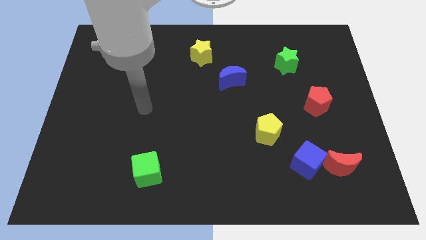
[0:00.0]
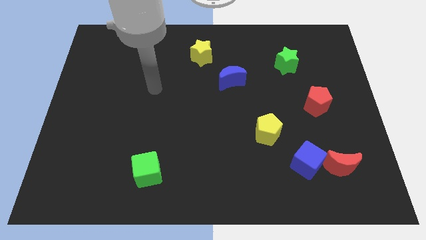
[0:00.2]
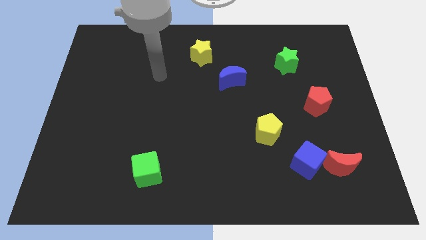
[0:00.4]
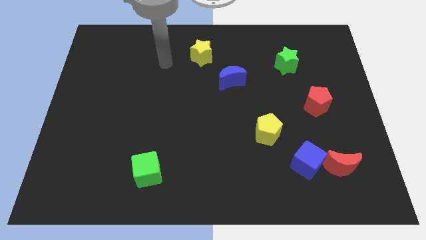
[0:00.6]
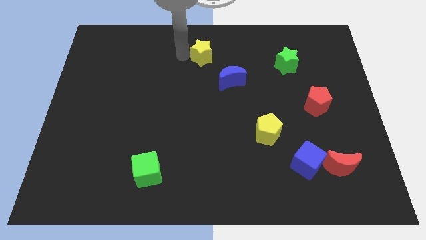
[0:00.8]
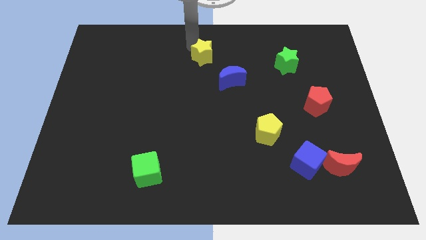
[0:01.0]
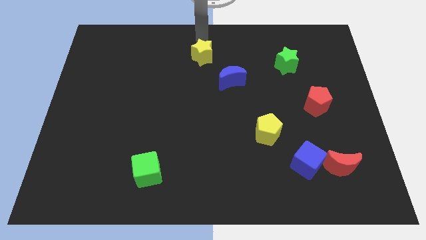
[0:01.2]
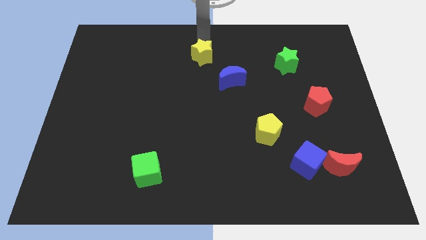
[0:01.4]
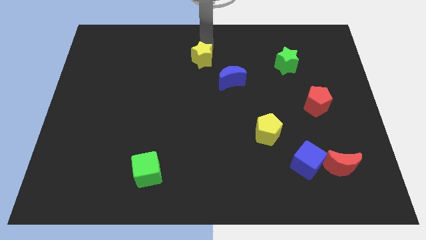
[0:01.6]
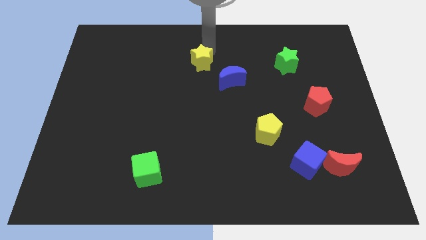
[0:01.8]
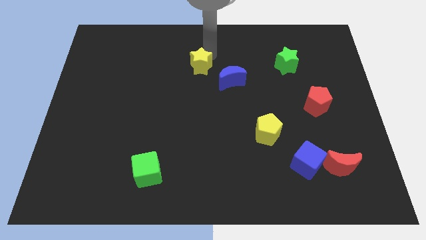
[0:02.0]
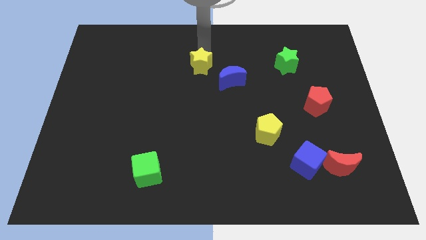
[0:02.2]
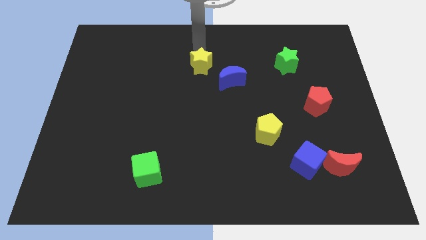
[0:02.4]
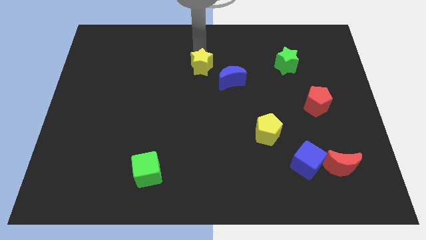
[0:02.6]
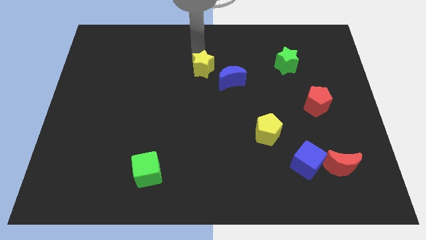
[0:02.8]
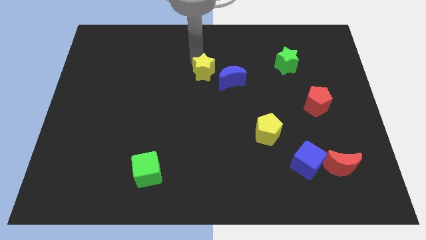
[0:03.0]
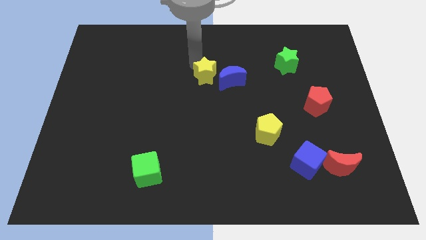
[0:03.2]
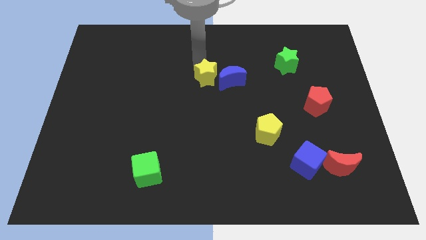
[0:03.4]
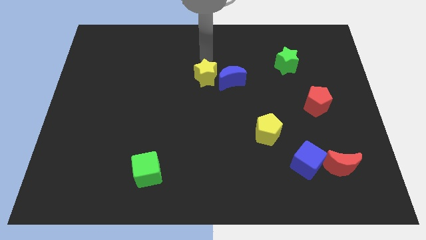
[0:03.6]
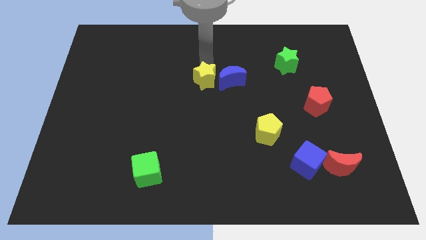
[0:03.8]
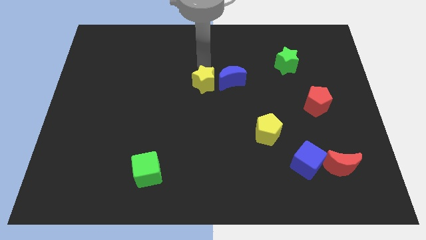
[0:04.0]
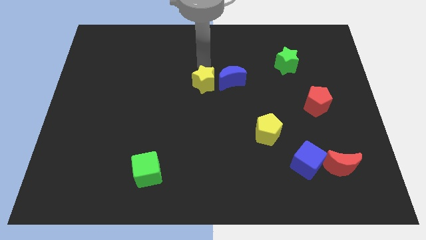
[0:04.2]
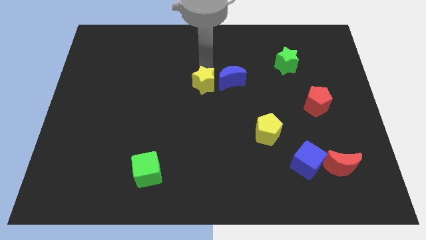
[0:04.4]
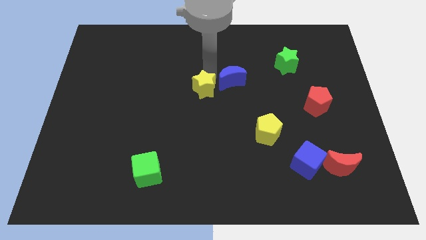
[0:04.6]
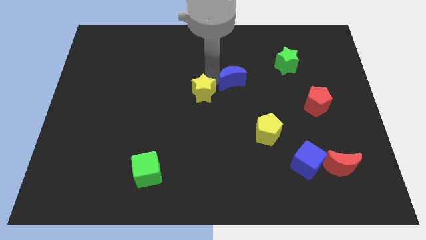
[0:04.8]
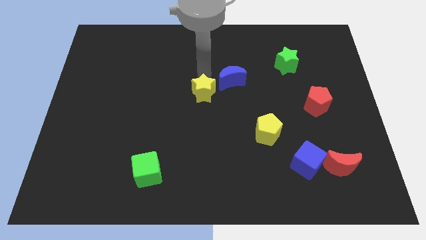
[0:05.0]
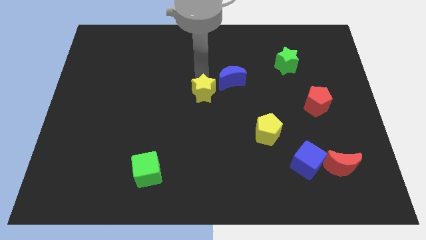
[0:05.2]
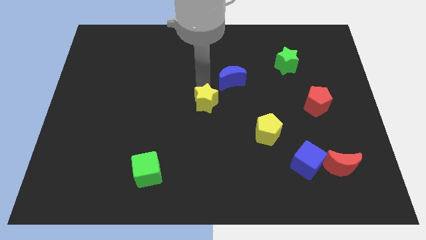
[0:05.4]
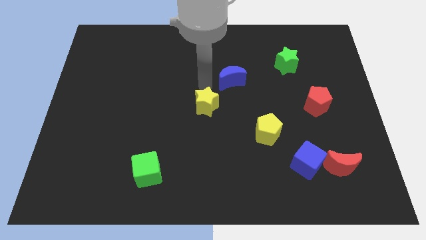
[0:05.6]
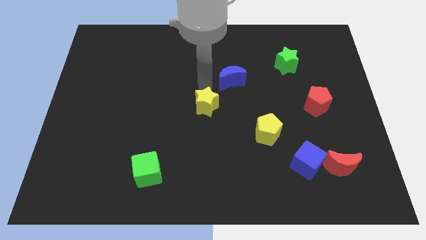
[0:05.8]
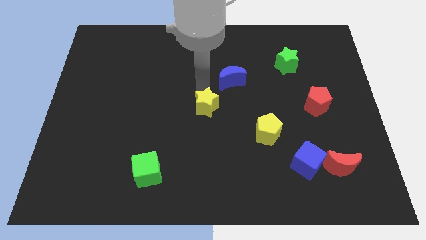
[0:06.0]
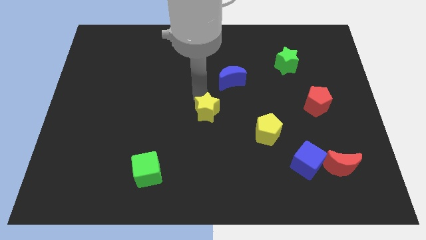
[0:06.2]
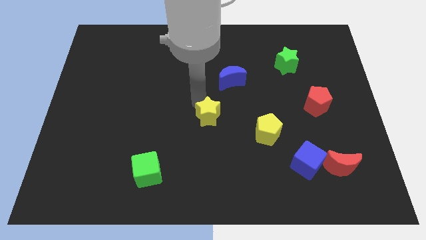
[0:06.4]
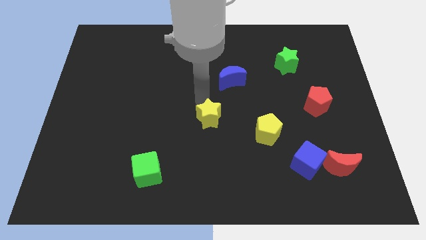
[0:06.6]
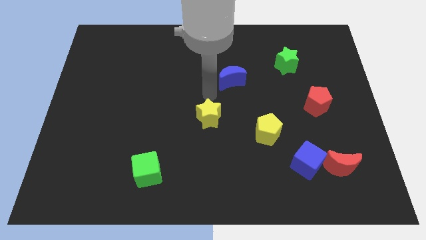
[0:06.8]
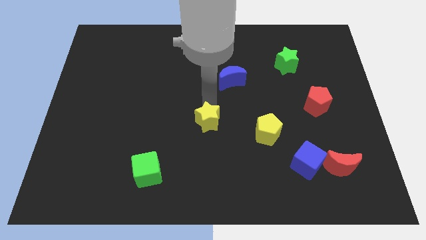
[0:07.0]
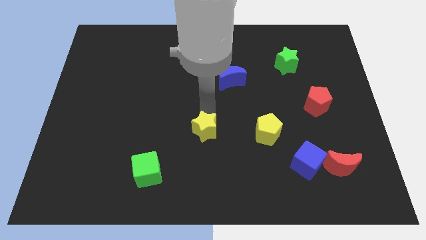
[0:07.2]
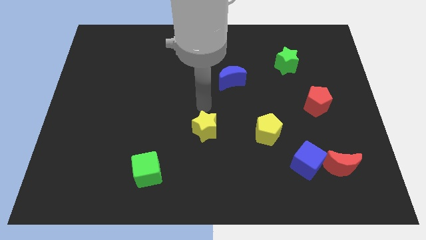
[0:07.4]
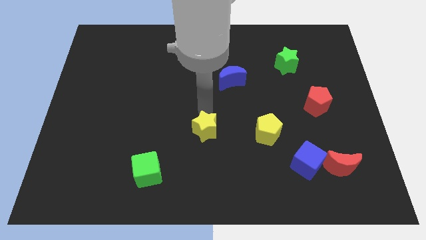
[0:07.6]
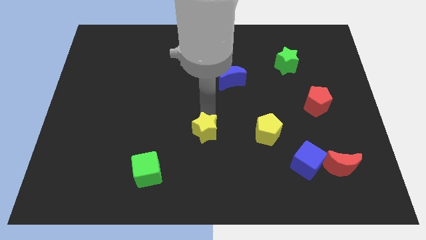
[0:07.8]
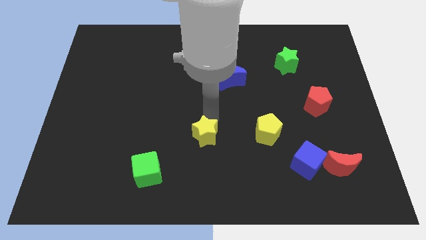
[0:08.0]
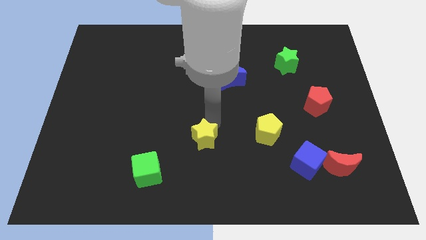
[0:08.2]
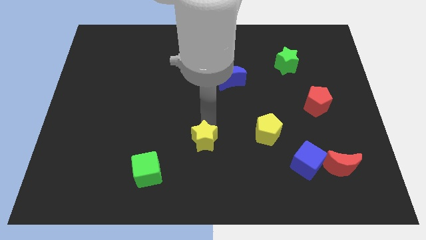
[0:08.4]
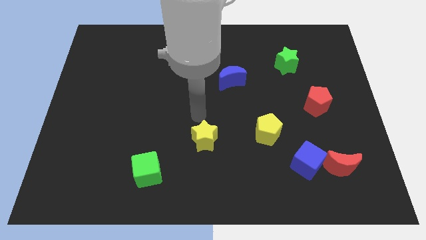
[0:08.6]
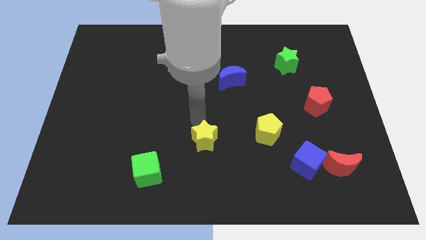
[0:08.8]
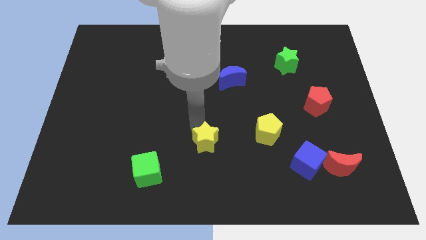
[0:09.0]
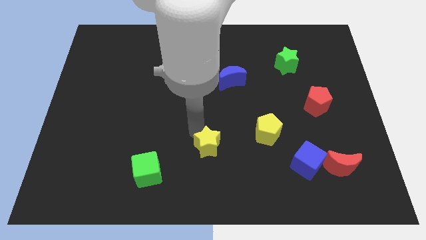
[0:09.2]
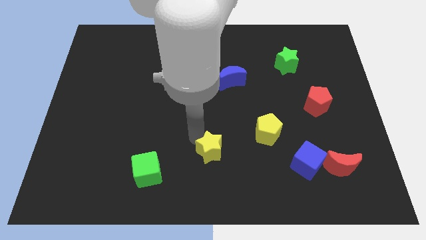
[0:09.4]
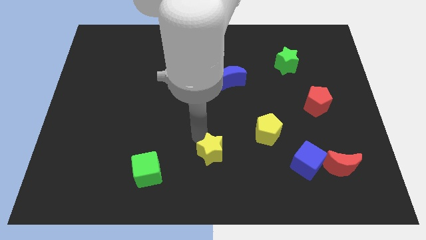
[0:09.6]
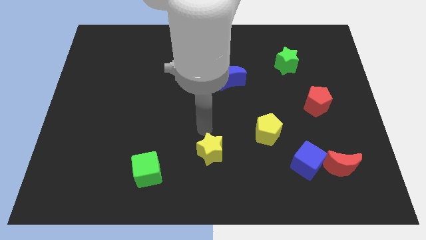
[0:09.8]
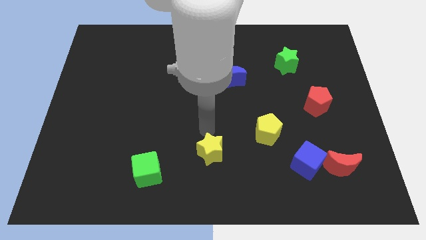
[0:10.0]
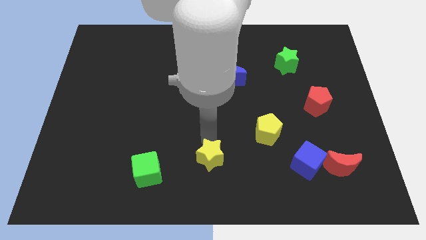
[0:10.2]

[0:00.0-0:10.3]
put the yellow star to the bottom

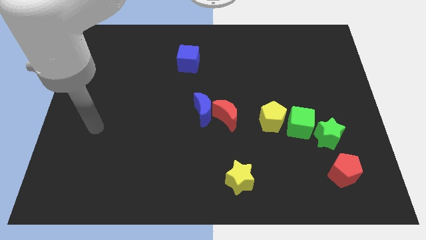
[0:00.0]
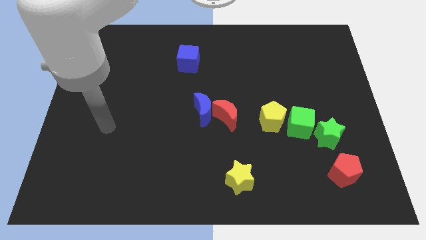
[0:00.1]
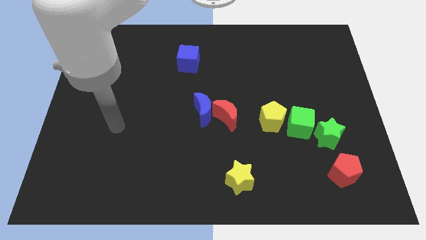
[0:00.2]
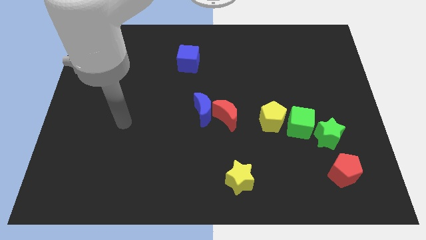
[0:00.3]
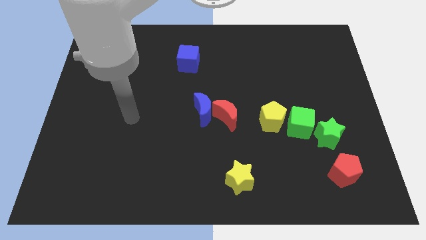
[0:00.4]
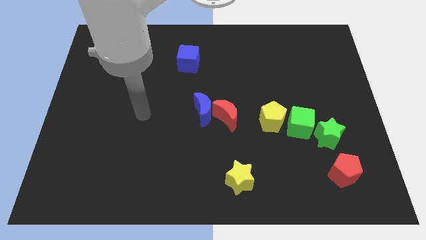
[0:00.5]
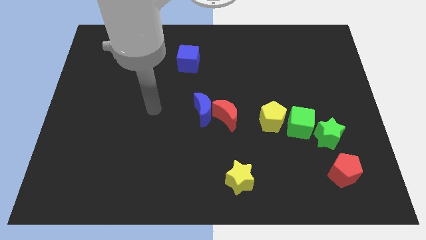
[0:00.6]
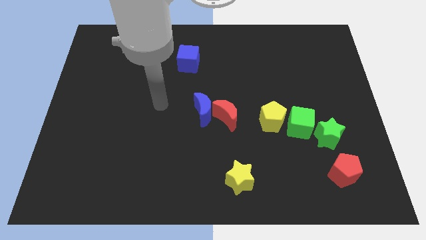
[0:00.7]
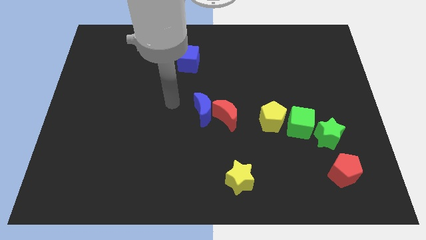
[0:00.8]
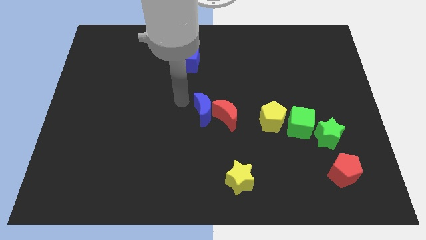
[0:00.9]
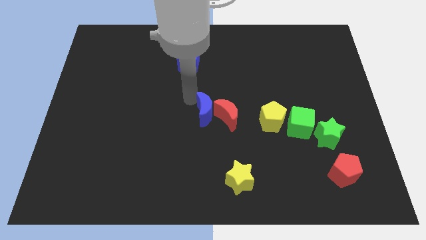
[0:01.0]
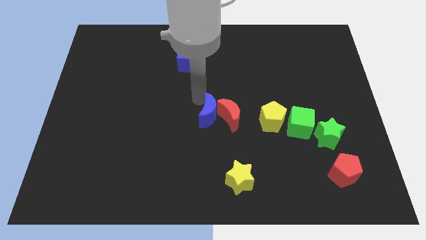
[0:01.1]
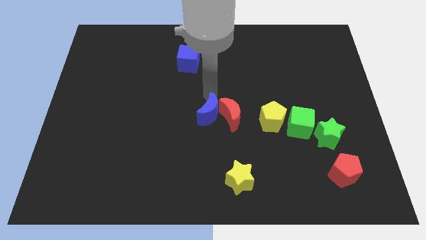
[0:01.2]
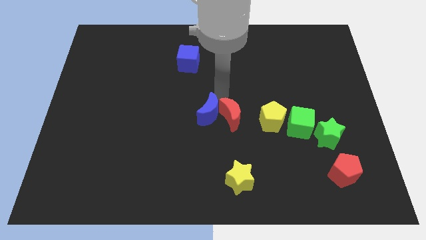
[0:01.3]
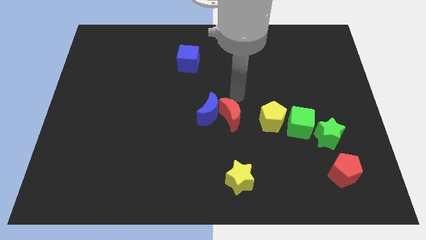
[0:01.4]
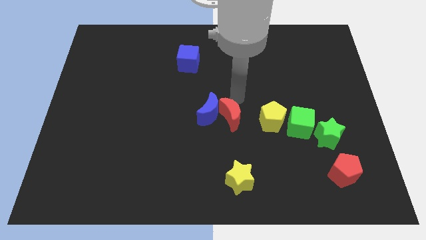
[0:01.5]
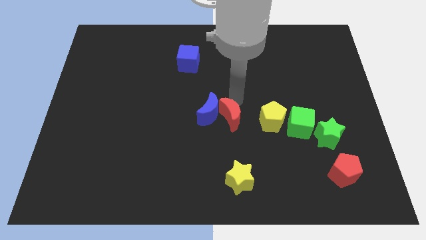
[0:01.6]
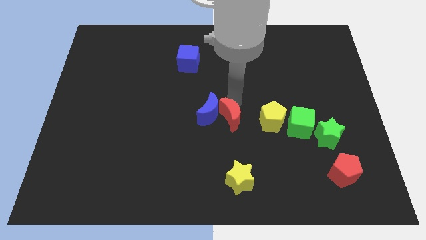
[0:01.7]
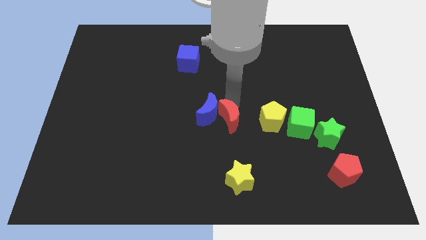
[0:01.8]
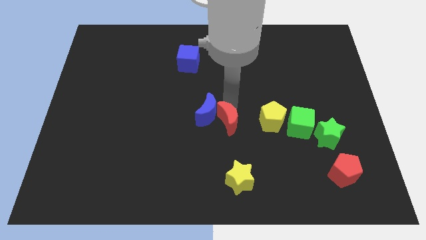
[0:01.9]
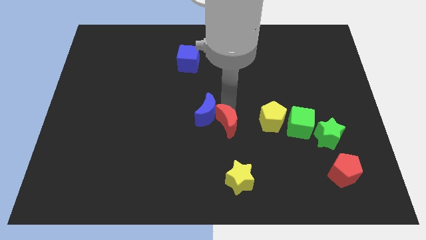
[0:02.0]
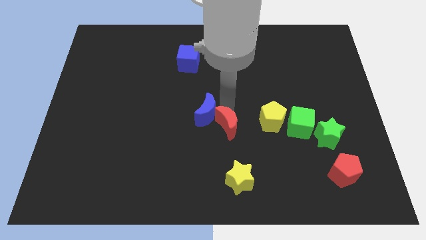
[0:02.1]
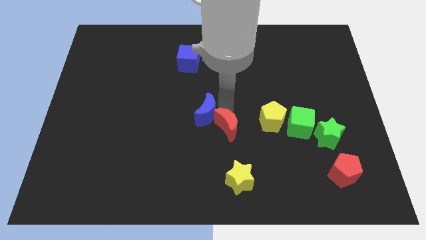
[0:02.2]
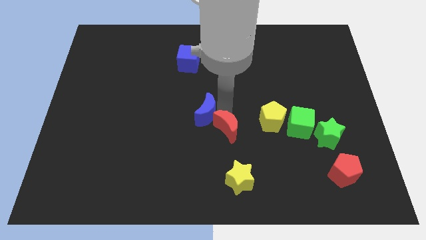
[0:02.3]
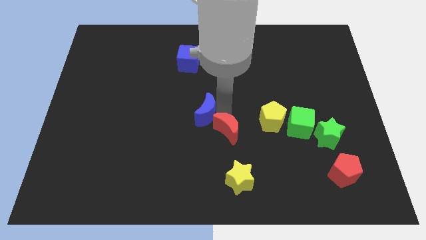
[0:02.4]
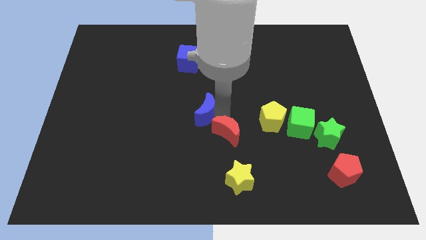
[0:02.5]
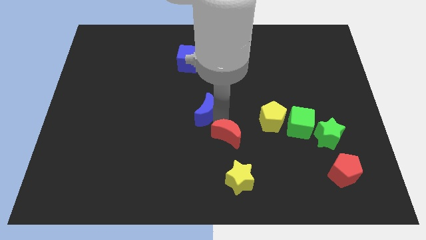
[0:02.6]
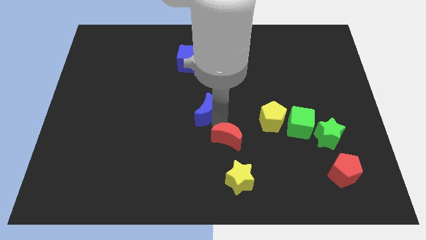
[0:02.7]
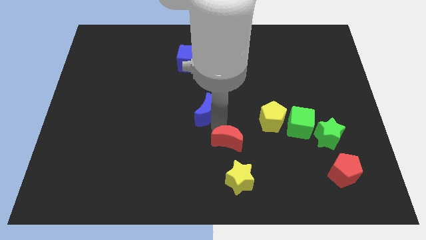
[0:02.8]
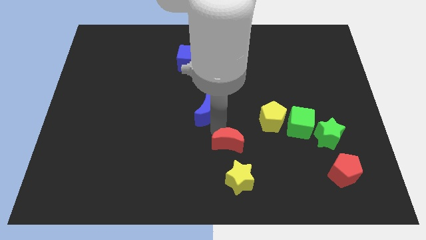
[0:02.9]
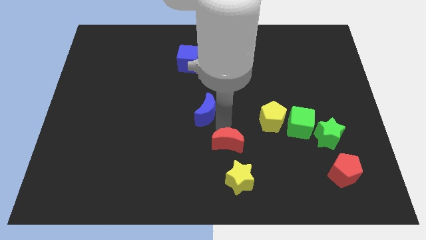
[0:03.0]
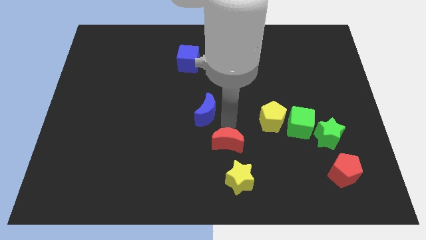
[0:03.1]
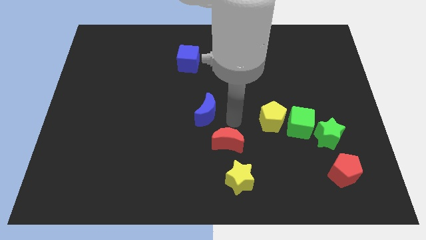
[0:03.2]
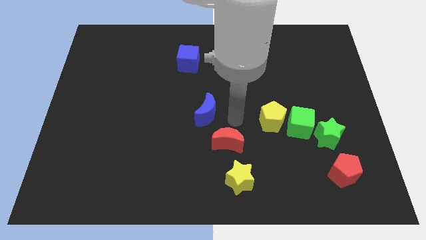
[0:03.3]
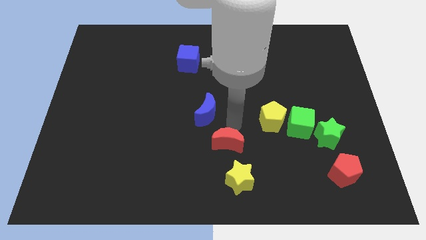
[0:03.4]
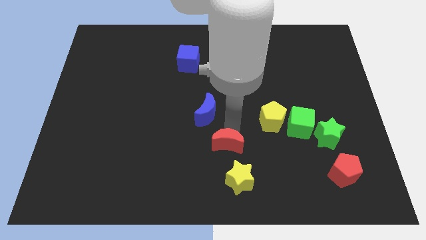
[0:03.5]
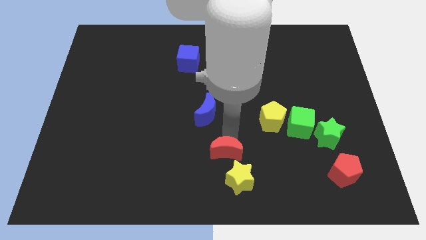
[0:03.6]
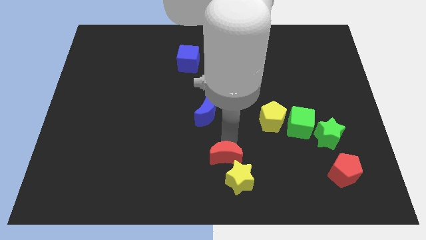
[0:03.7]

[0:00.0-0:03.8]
move the red moon to the bottom side

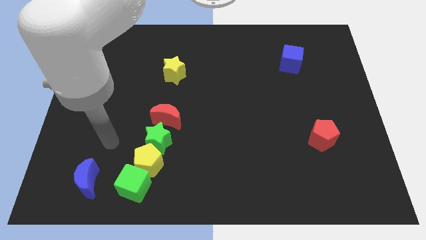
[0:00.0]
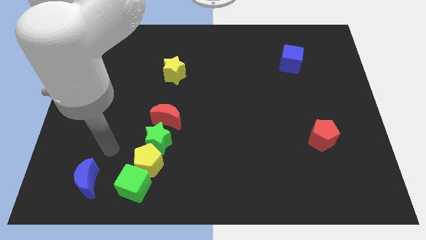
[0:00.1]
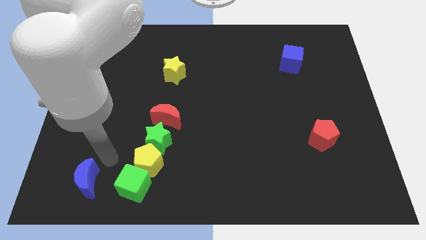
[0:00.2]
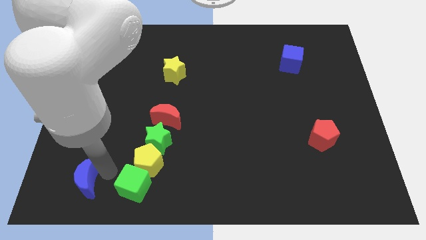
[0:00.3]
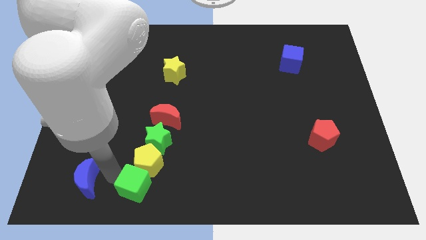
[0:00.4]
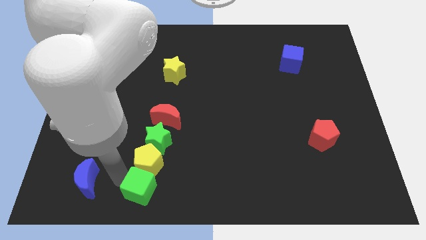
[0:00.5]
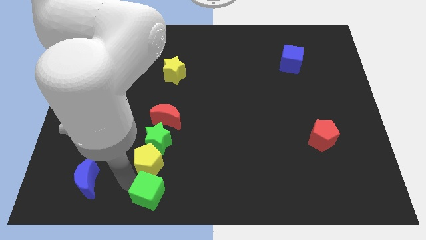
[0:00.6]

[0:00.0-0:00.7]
push the green cube to the bottom
